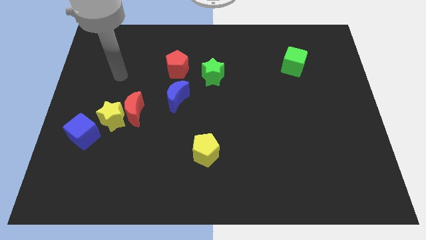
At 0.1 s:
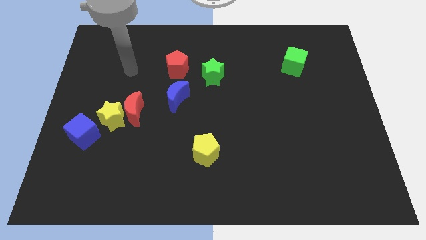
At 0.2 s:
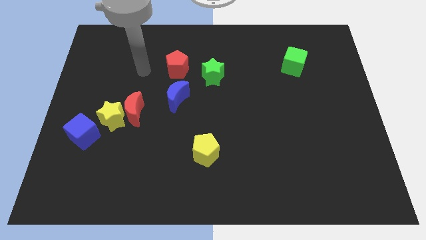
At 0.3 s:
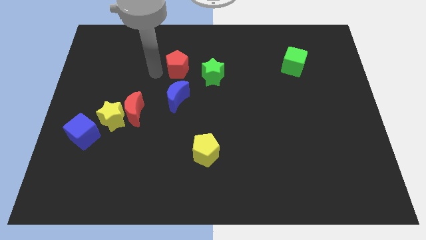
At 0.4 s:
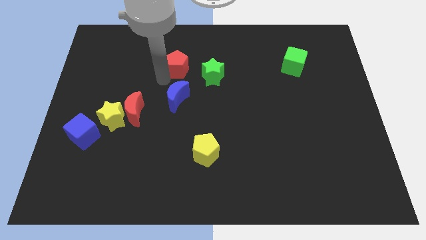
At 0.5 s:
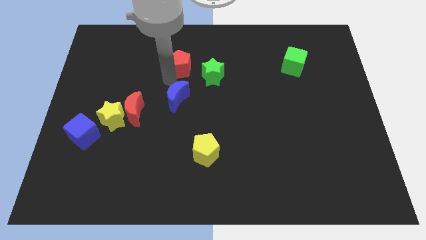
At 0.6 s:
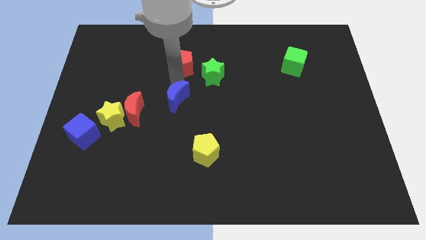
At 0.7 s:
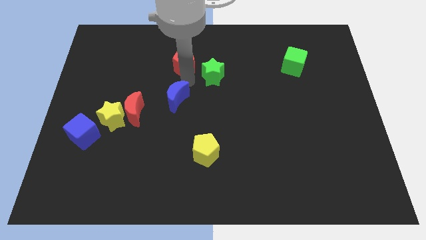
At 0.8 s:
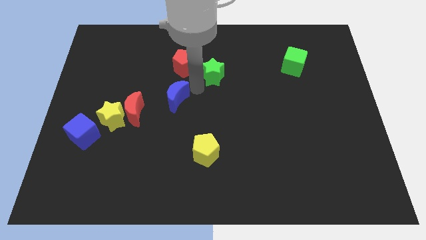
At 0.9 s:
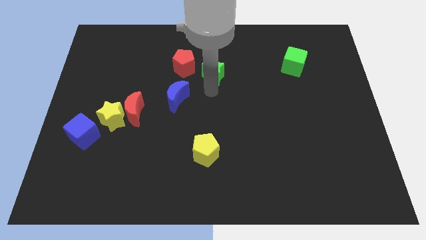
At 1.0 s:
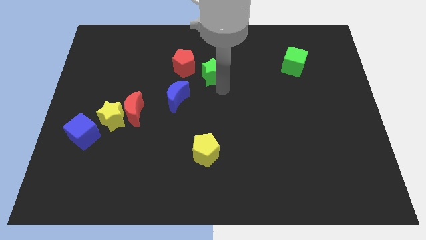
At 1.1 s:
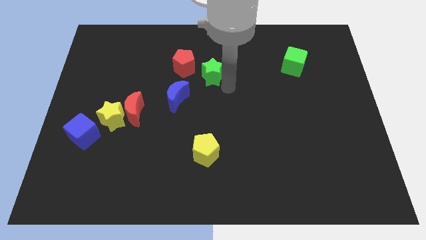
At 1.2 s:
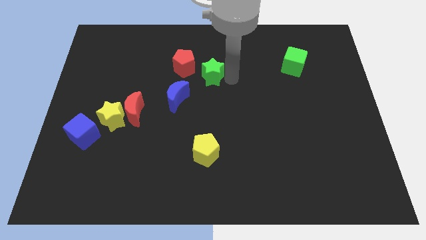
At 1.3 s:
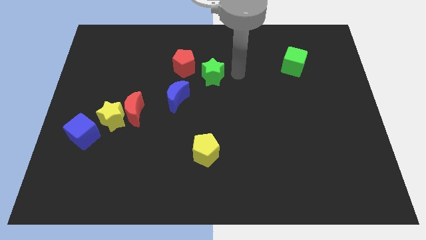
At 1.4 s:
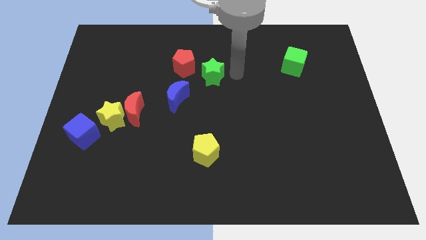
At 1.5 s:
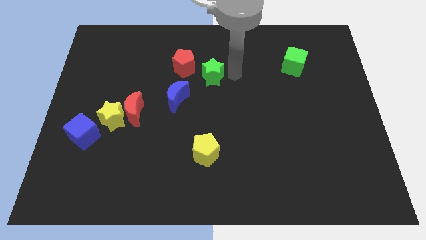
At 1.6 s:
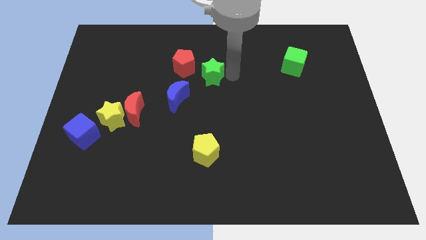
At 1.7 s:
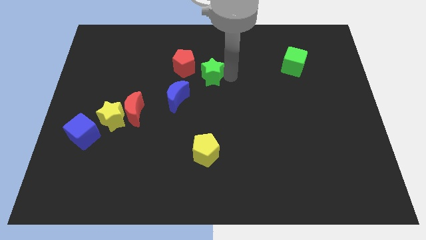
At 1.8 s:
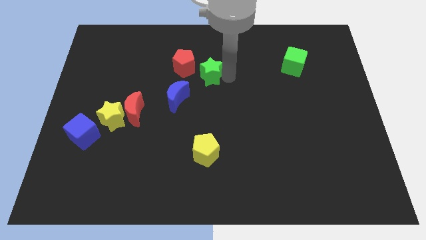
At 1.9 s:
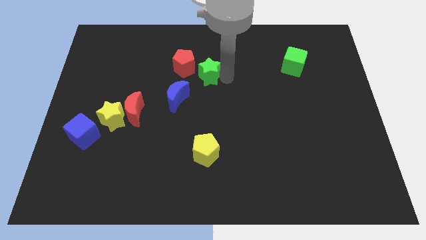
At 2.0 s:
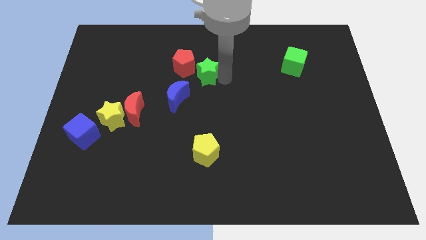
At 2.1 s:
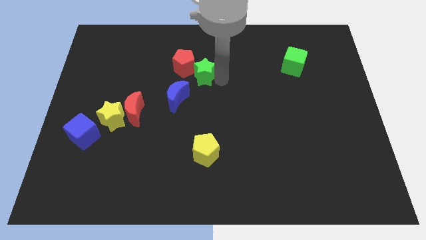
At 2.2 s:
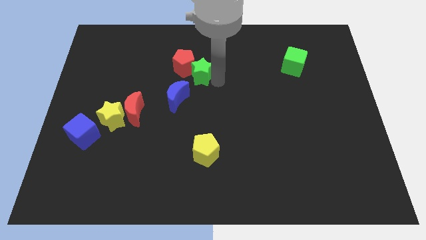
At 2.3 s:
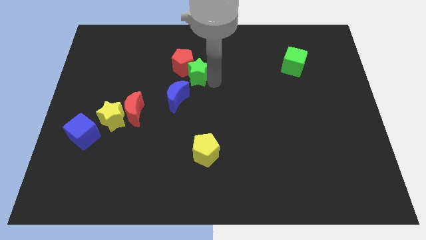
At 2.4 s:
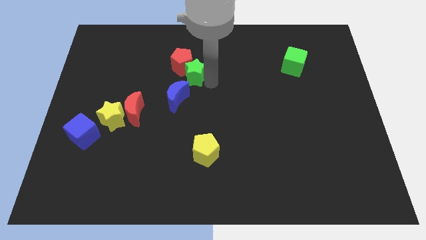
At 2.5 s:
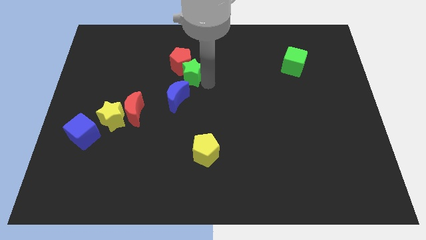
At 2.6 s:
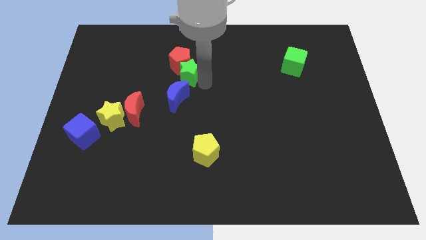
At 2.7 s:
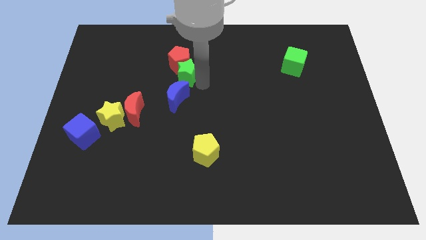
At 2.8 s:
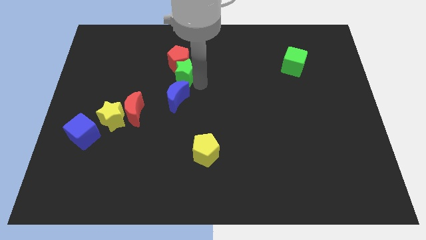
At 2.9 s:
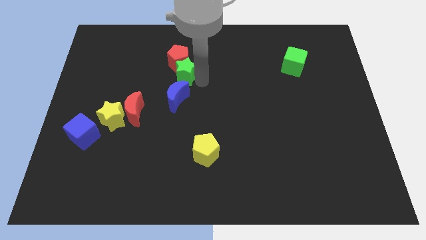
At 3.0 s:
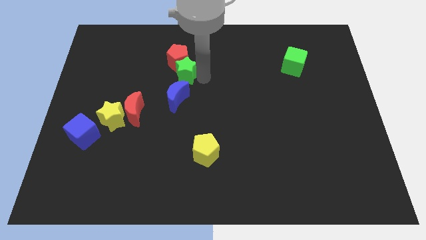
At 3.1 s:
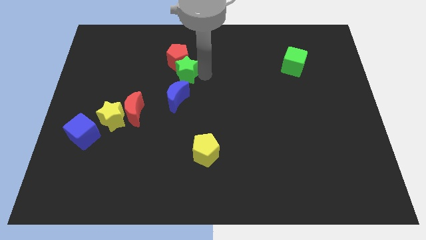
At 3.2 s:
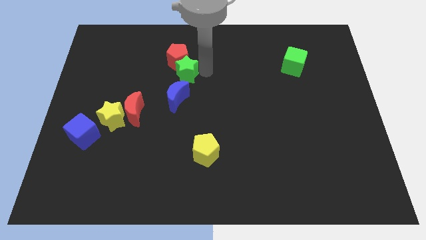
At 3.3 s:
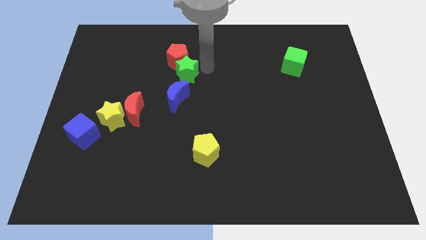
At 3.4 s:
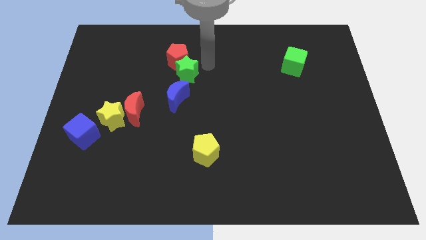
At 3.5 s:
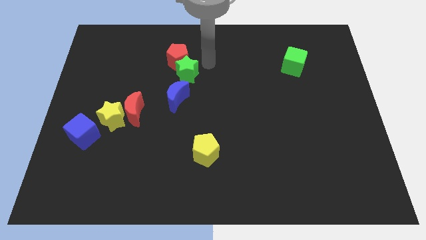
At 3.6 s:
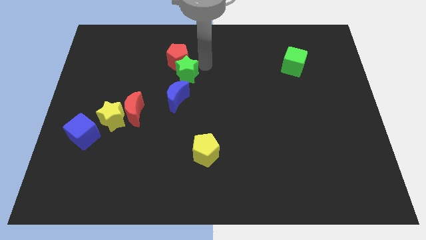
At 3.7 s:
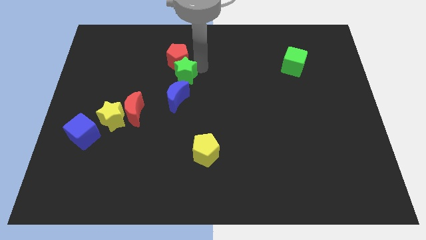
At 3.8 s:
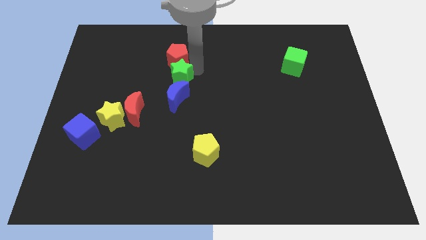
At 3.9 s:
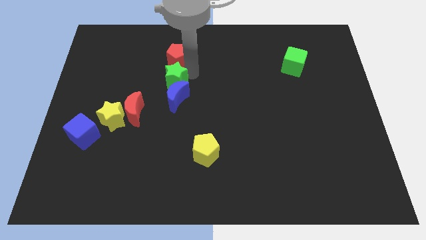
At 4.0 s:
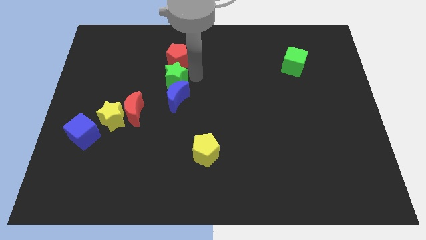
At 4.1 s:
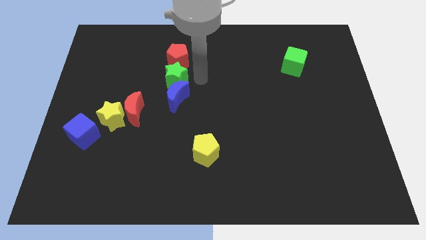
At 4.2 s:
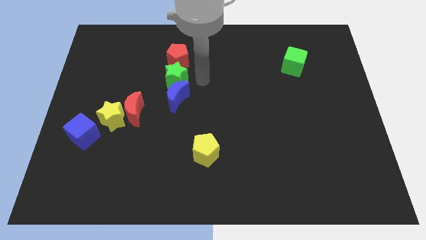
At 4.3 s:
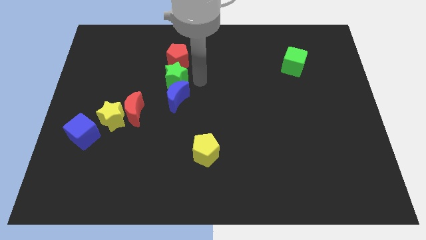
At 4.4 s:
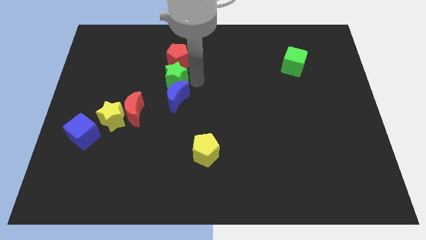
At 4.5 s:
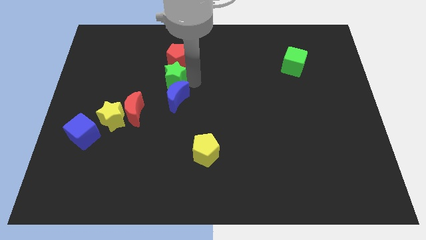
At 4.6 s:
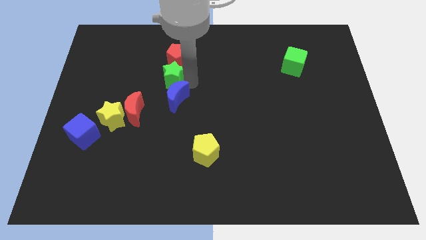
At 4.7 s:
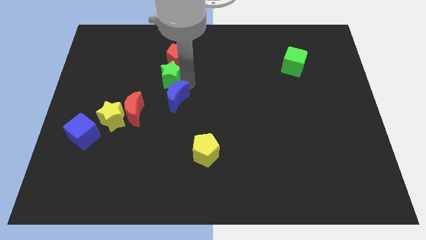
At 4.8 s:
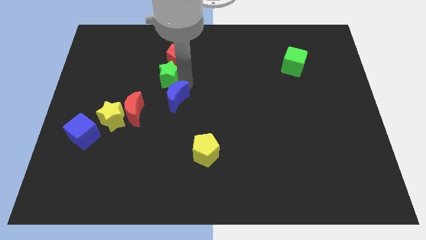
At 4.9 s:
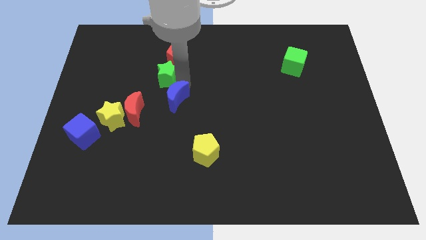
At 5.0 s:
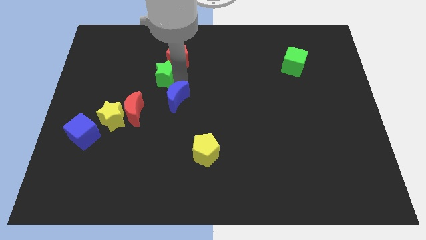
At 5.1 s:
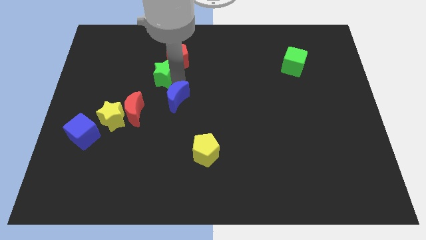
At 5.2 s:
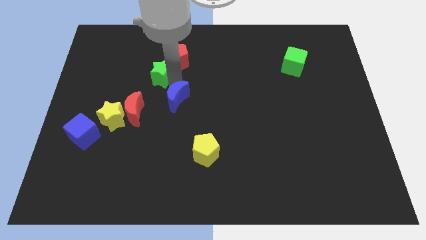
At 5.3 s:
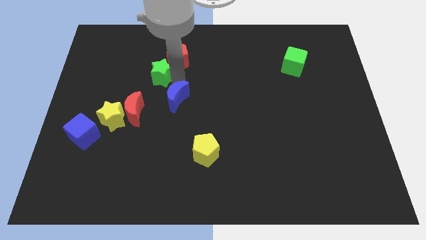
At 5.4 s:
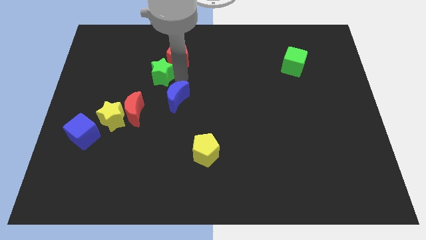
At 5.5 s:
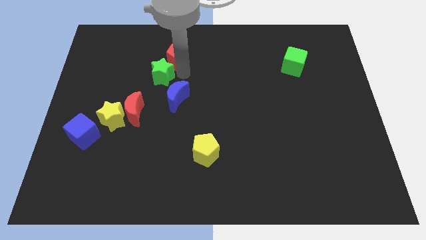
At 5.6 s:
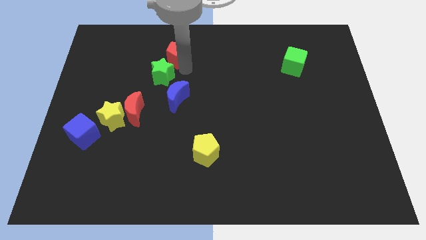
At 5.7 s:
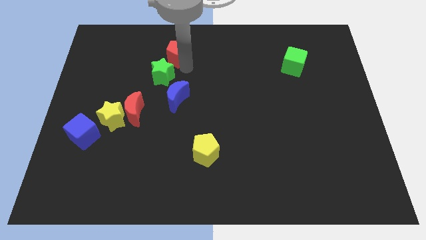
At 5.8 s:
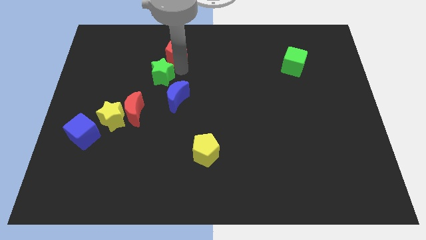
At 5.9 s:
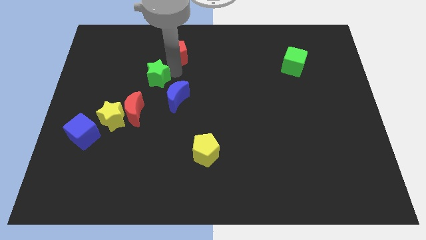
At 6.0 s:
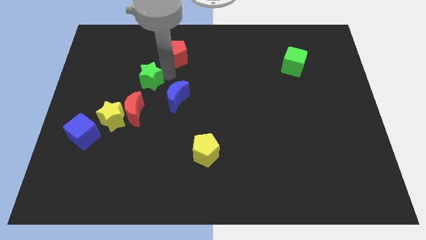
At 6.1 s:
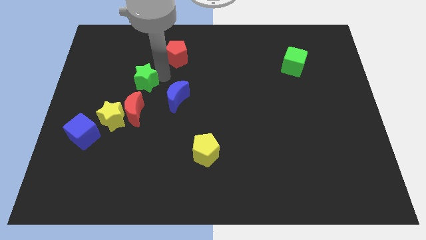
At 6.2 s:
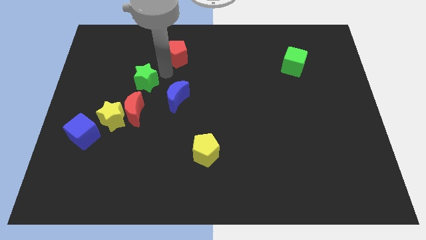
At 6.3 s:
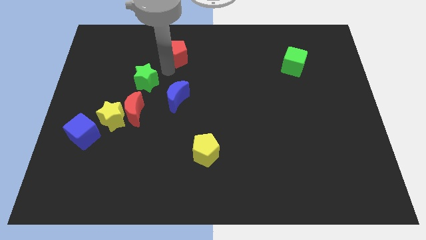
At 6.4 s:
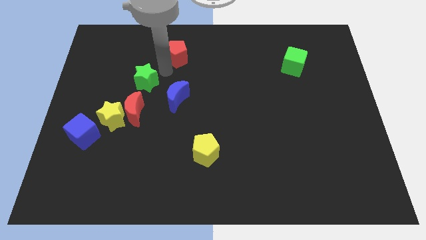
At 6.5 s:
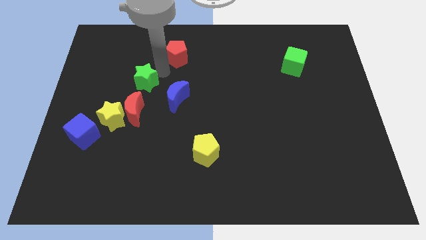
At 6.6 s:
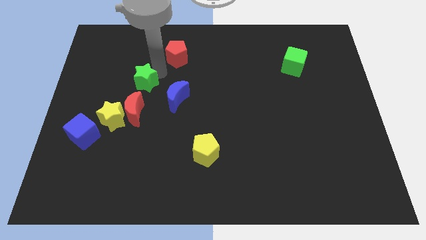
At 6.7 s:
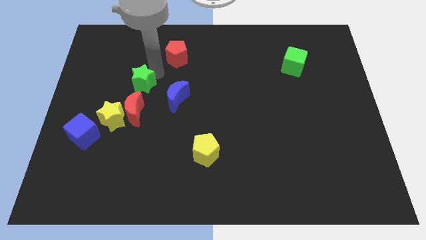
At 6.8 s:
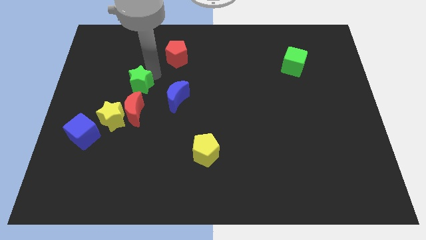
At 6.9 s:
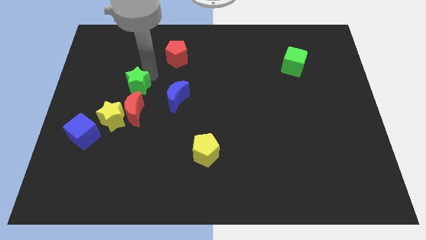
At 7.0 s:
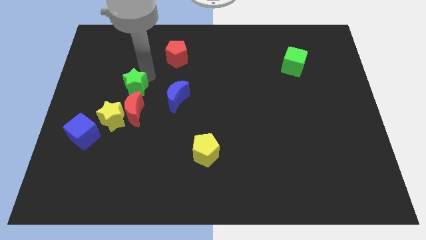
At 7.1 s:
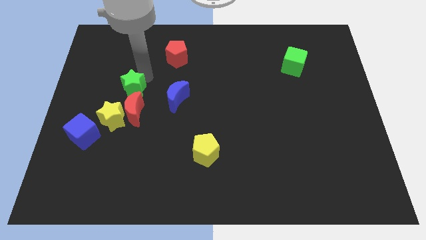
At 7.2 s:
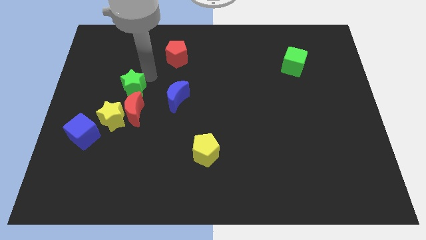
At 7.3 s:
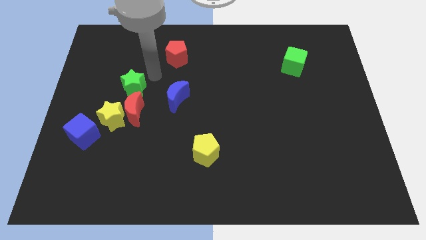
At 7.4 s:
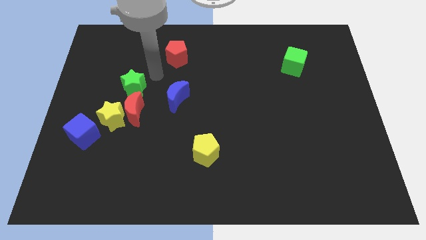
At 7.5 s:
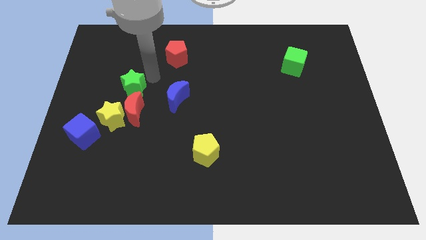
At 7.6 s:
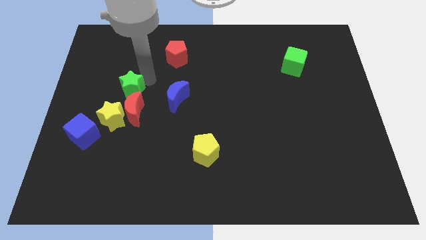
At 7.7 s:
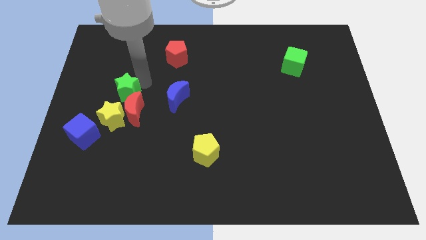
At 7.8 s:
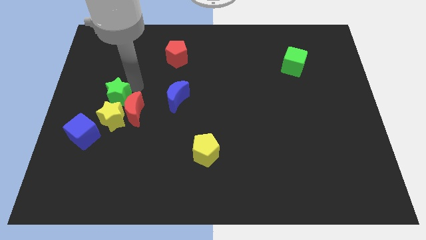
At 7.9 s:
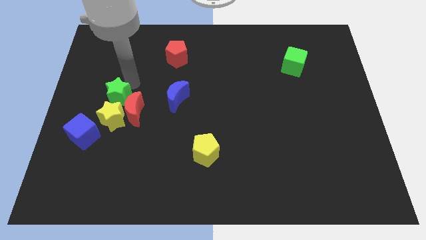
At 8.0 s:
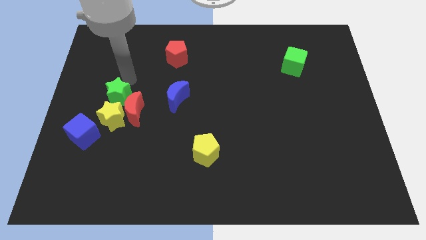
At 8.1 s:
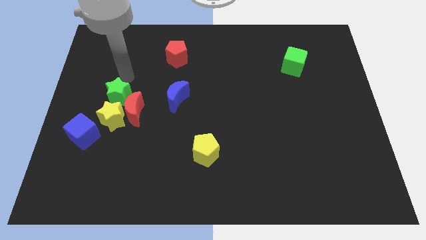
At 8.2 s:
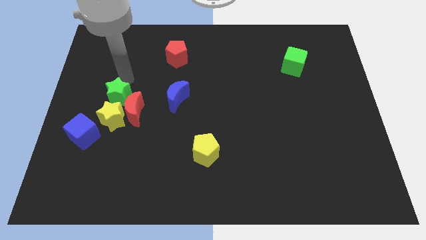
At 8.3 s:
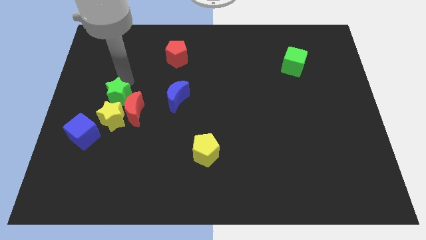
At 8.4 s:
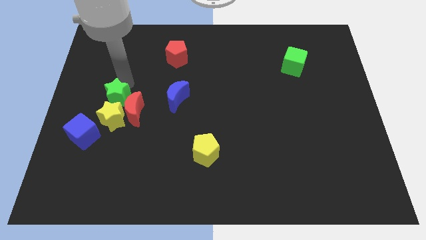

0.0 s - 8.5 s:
put the green star towards the yellow star
